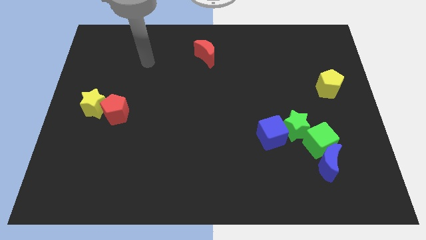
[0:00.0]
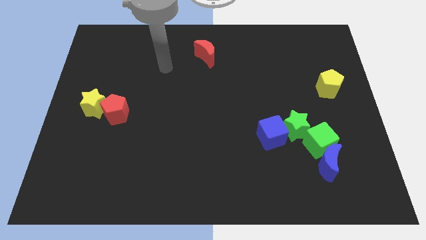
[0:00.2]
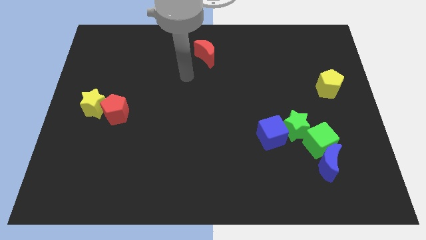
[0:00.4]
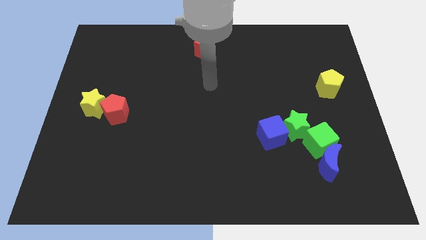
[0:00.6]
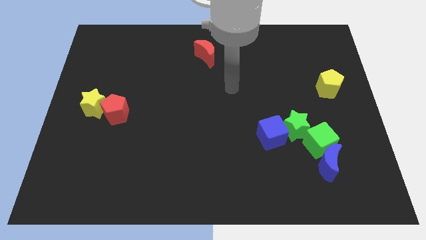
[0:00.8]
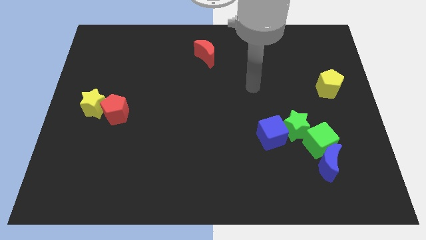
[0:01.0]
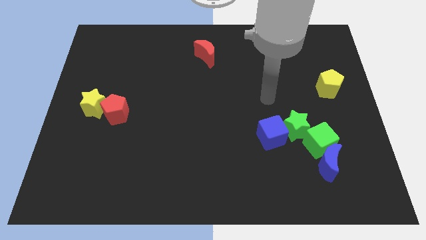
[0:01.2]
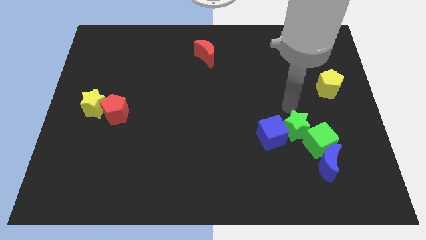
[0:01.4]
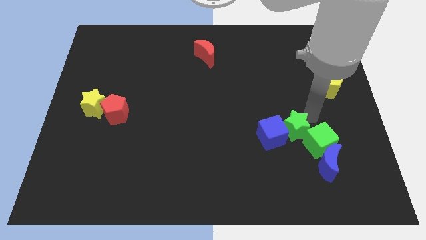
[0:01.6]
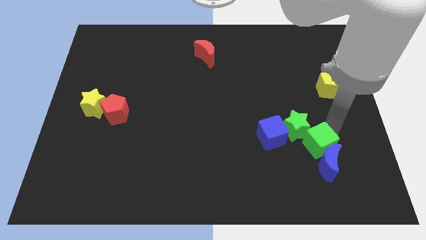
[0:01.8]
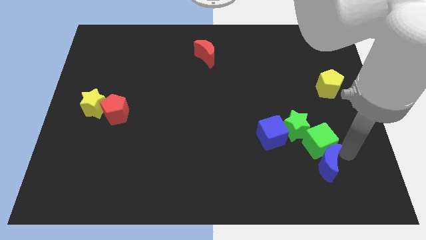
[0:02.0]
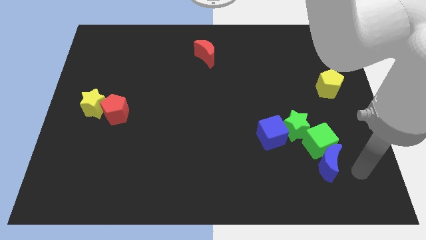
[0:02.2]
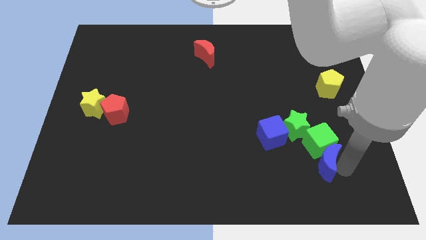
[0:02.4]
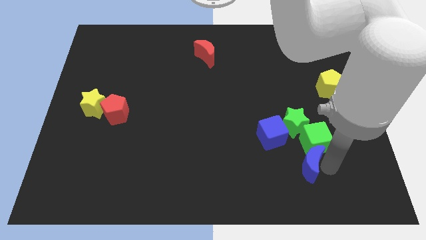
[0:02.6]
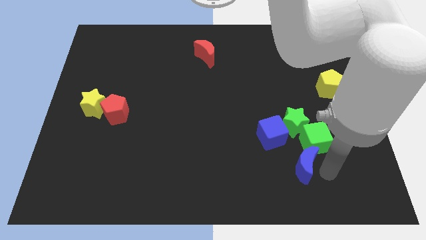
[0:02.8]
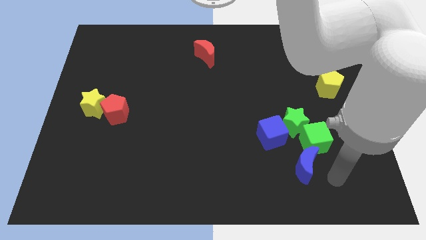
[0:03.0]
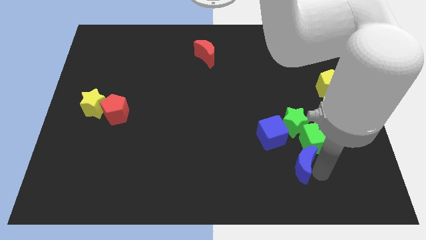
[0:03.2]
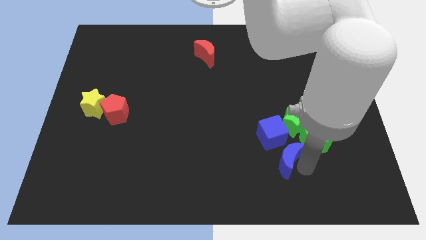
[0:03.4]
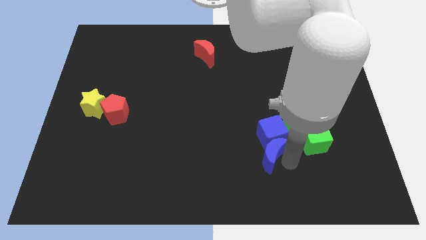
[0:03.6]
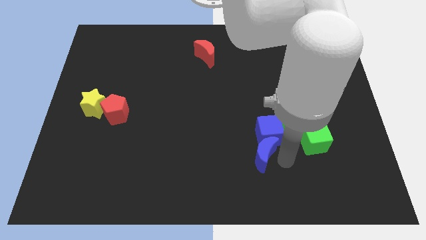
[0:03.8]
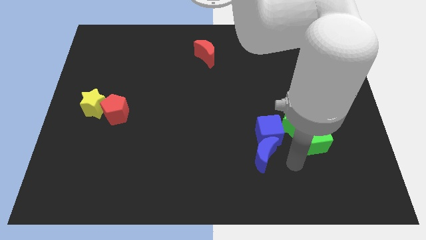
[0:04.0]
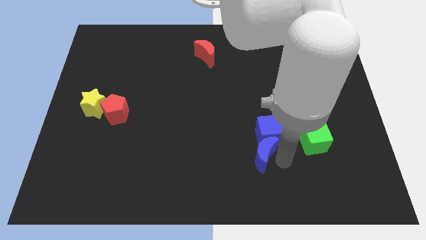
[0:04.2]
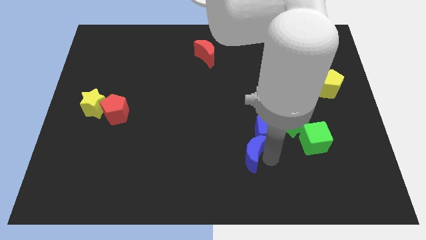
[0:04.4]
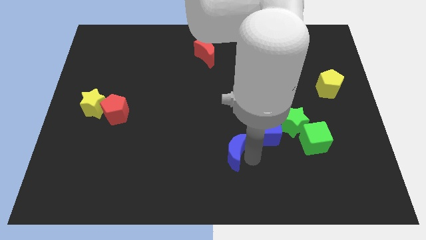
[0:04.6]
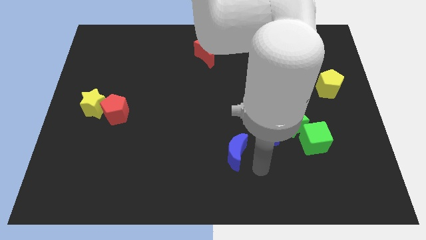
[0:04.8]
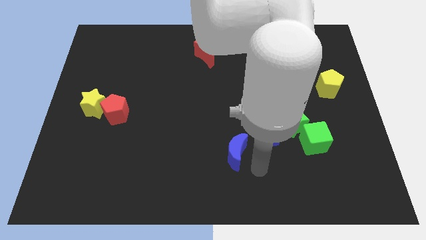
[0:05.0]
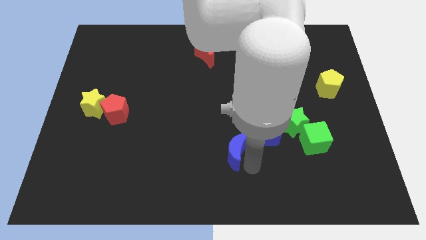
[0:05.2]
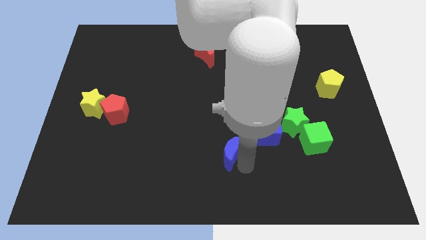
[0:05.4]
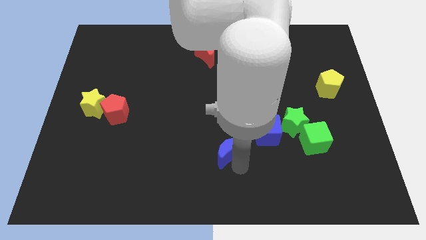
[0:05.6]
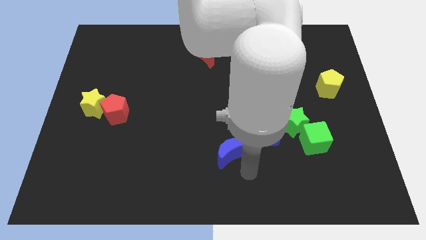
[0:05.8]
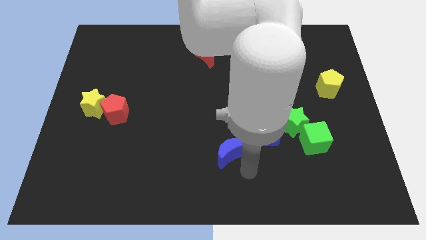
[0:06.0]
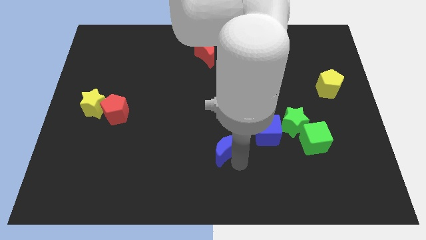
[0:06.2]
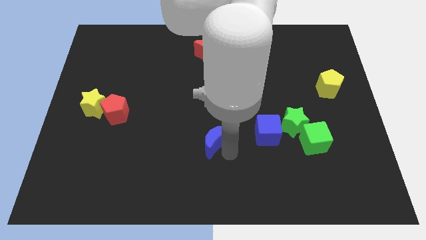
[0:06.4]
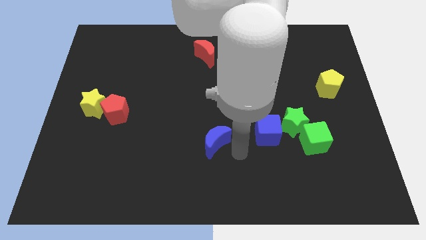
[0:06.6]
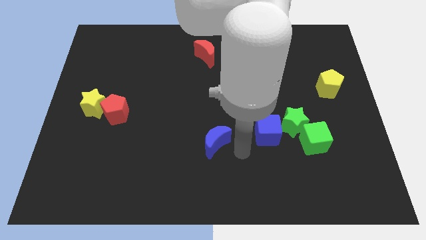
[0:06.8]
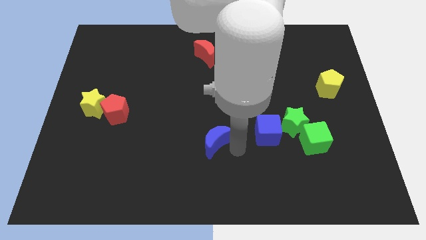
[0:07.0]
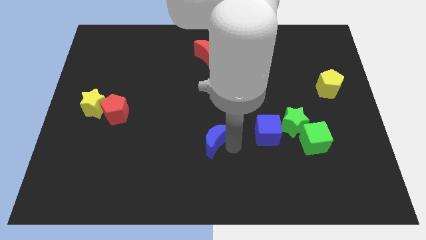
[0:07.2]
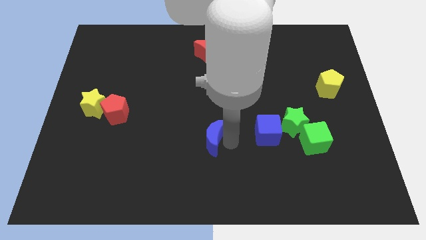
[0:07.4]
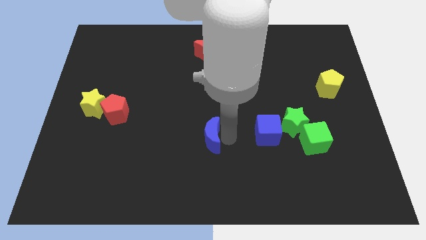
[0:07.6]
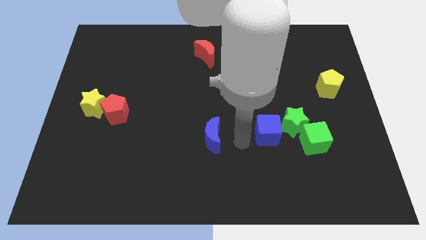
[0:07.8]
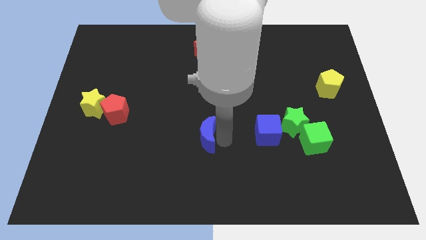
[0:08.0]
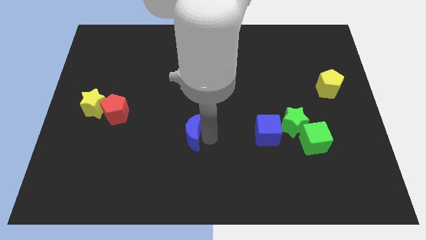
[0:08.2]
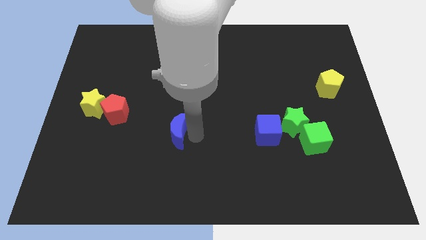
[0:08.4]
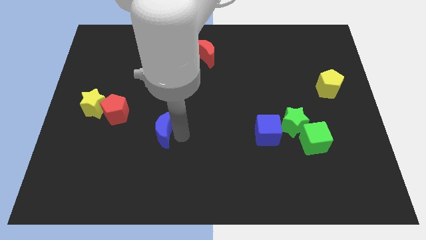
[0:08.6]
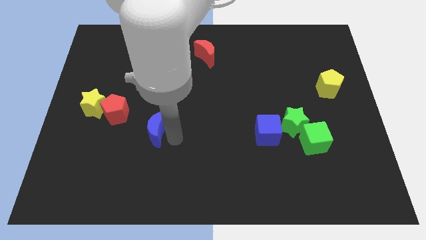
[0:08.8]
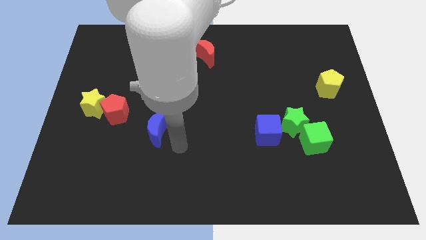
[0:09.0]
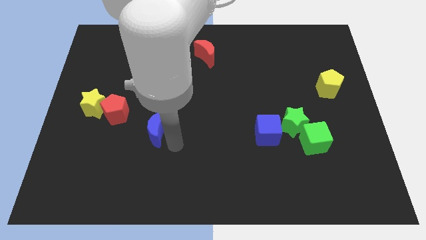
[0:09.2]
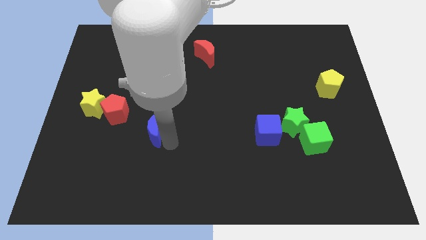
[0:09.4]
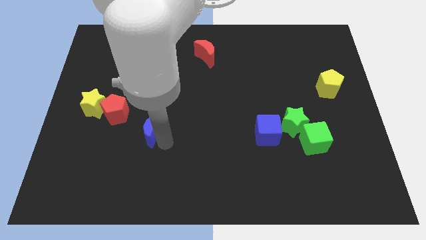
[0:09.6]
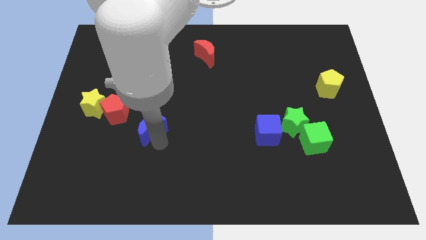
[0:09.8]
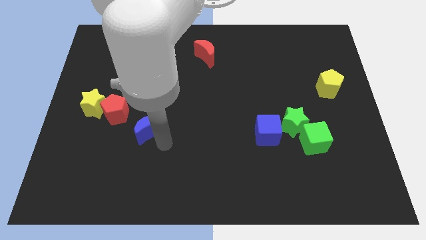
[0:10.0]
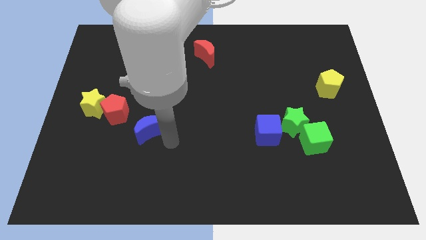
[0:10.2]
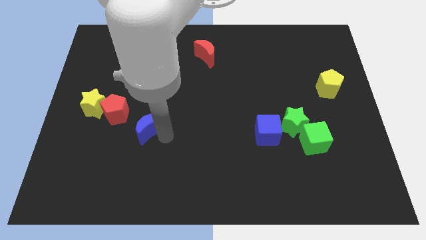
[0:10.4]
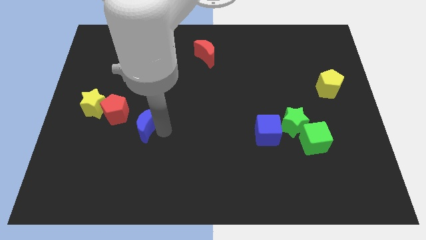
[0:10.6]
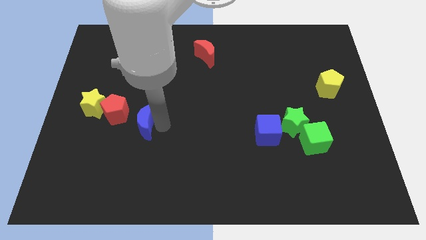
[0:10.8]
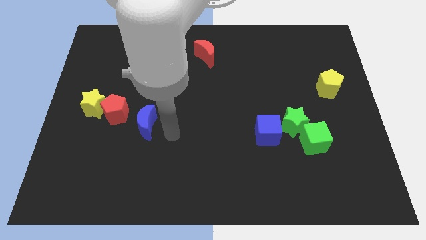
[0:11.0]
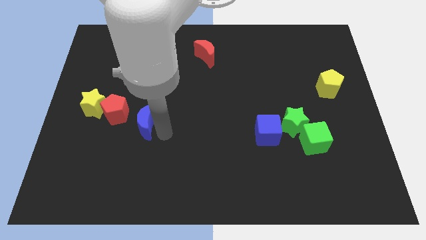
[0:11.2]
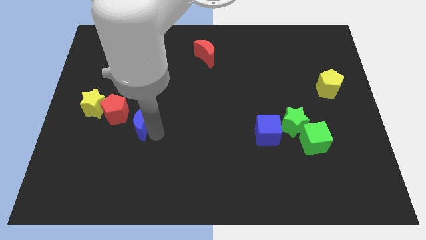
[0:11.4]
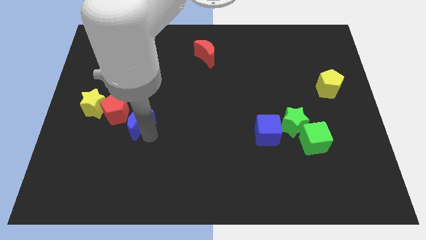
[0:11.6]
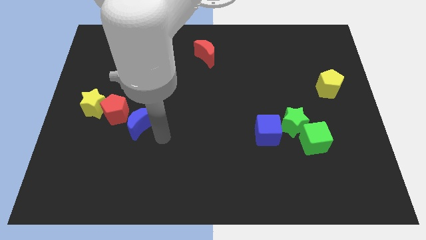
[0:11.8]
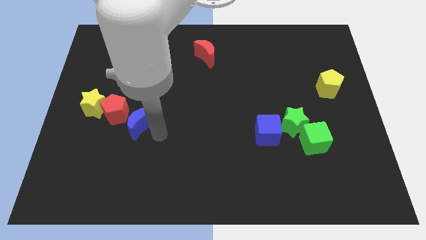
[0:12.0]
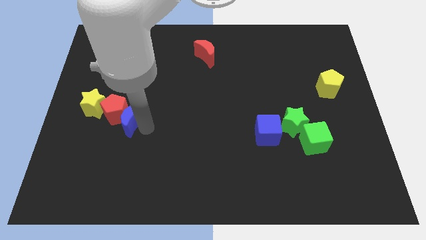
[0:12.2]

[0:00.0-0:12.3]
push the blue moon towards the red pentagon

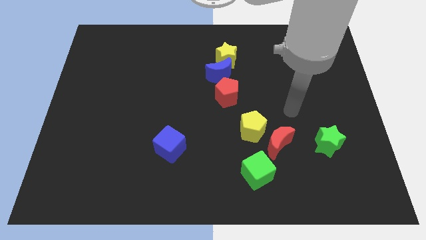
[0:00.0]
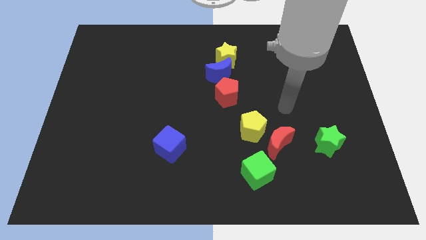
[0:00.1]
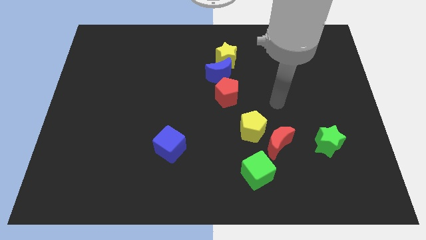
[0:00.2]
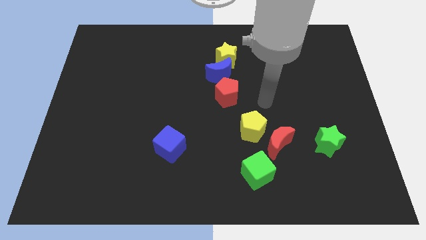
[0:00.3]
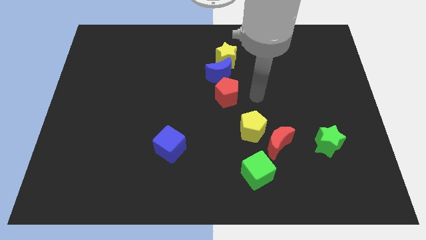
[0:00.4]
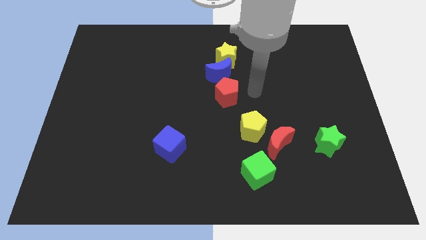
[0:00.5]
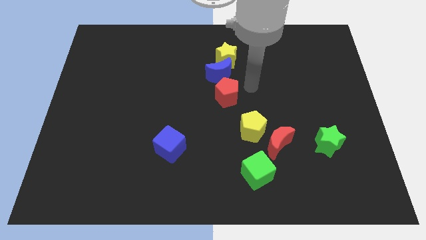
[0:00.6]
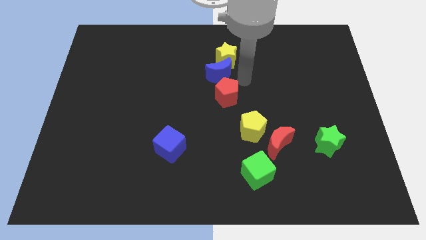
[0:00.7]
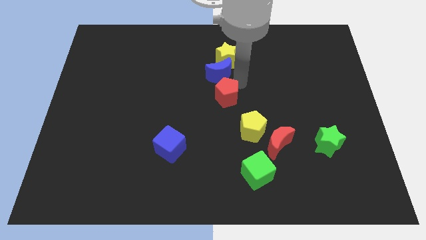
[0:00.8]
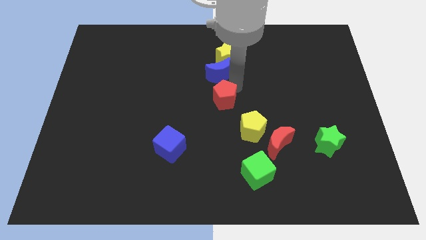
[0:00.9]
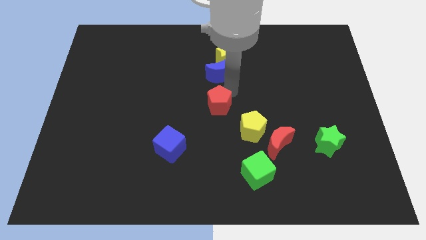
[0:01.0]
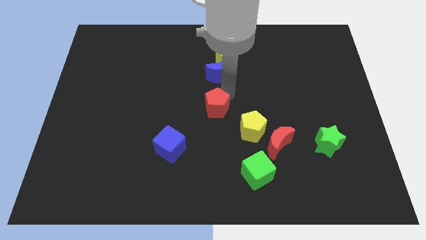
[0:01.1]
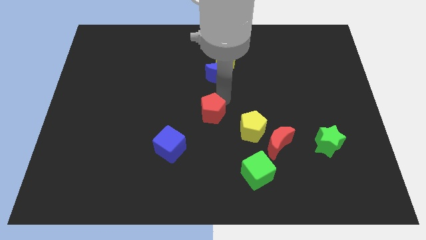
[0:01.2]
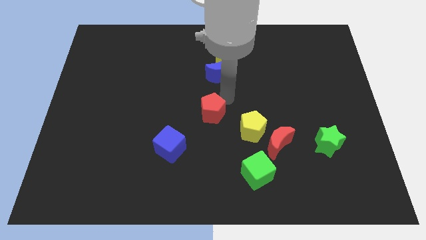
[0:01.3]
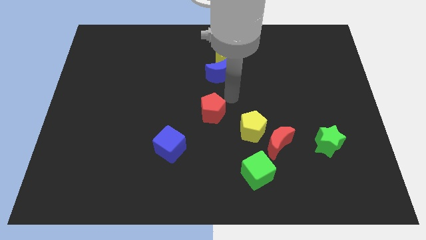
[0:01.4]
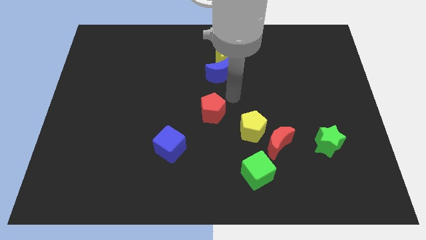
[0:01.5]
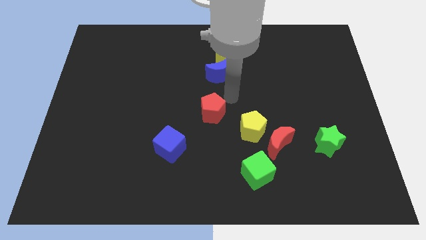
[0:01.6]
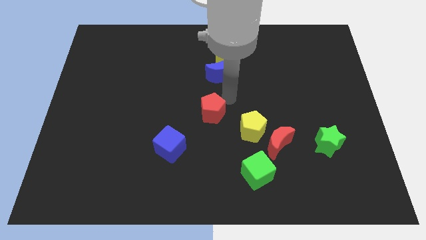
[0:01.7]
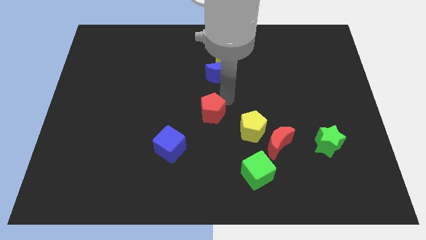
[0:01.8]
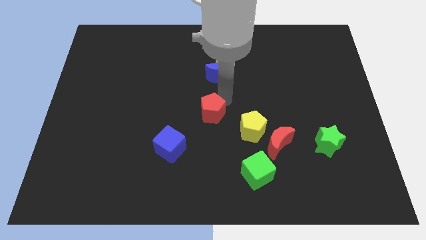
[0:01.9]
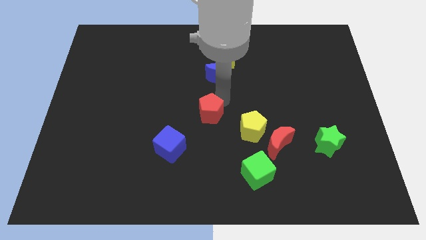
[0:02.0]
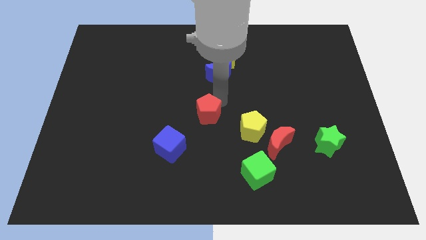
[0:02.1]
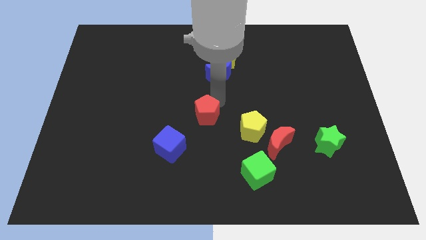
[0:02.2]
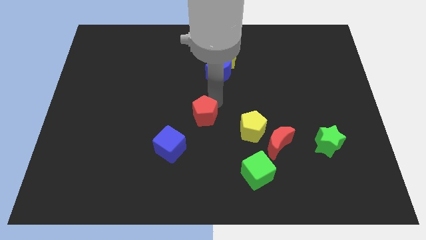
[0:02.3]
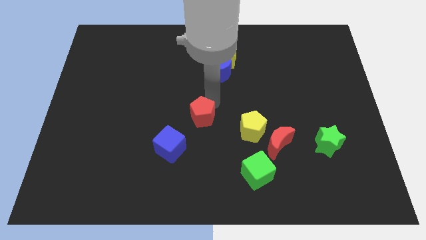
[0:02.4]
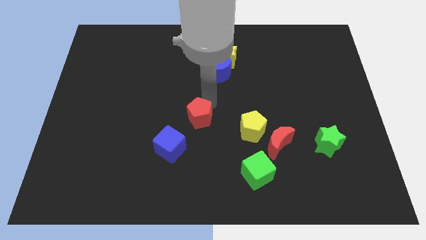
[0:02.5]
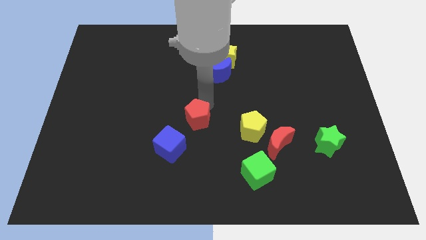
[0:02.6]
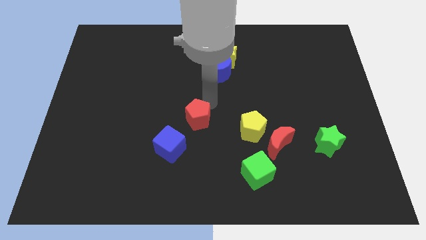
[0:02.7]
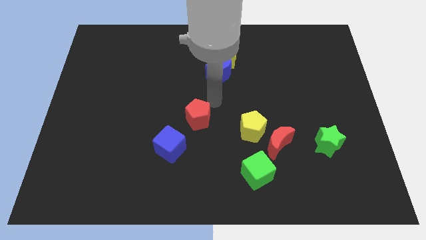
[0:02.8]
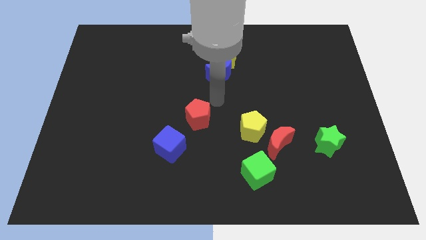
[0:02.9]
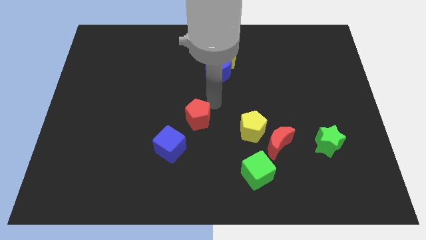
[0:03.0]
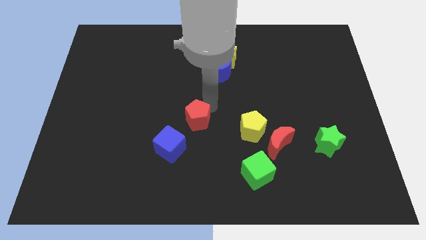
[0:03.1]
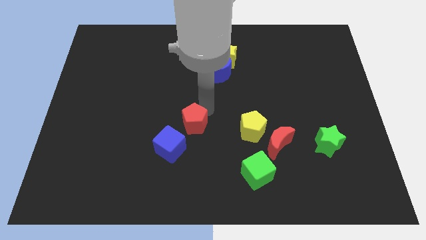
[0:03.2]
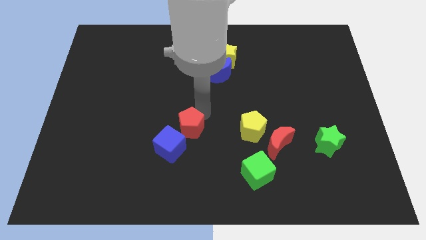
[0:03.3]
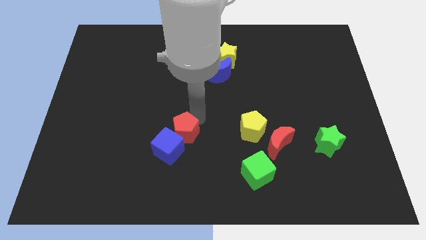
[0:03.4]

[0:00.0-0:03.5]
move the red pentagon close to the blue cube
